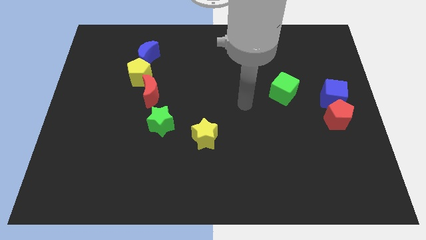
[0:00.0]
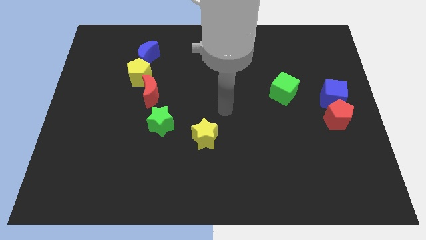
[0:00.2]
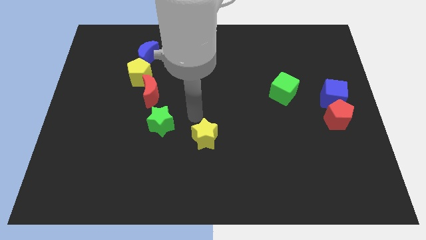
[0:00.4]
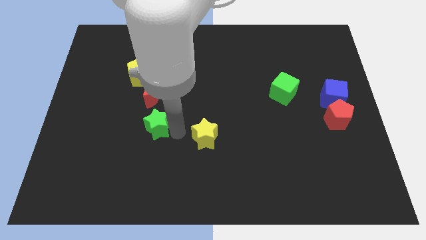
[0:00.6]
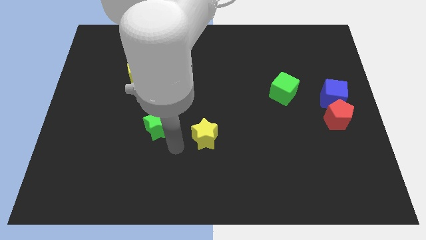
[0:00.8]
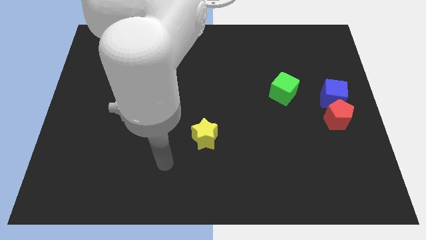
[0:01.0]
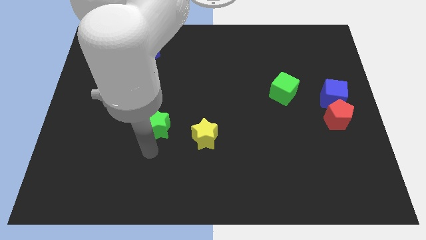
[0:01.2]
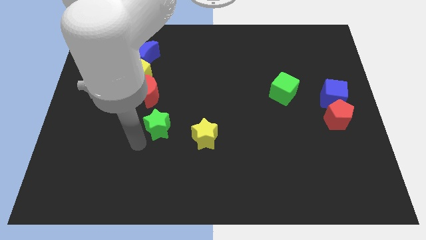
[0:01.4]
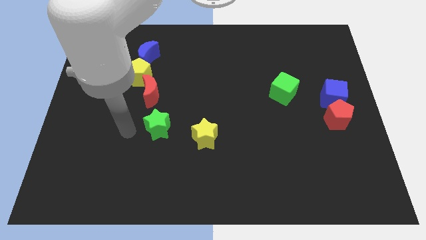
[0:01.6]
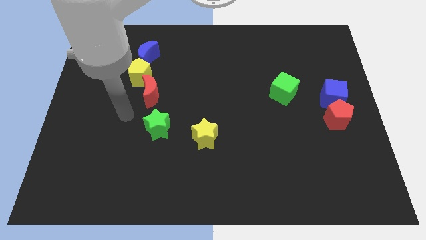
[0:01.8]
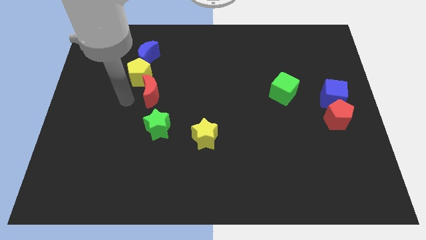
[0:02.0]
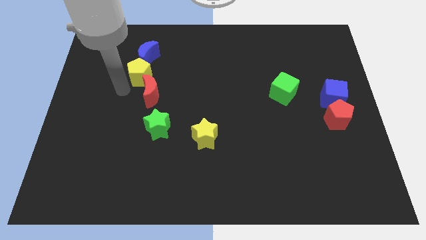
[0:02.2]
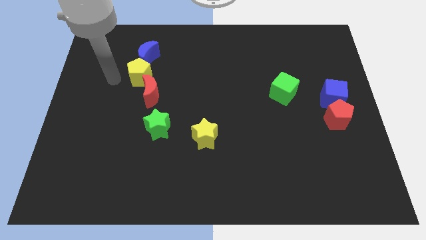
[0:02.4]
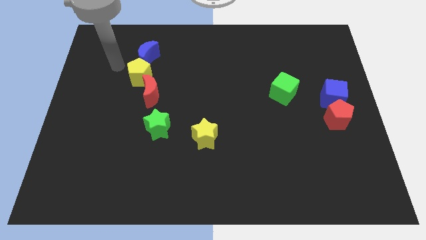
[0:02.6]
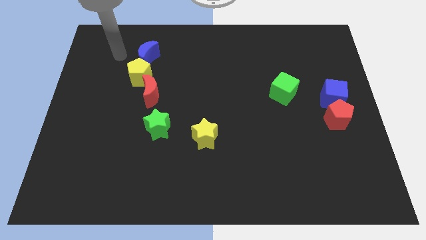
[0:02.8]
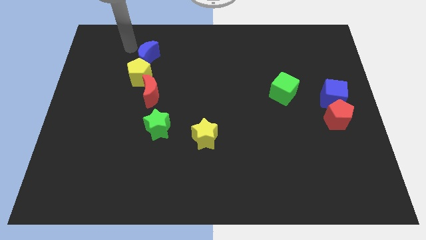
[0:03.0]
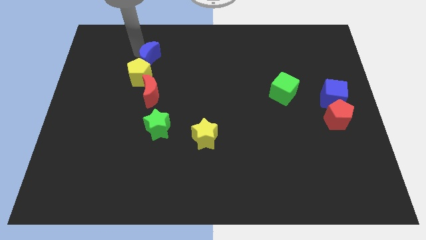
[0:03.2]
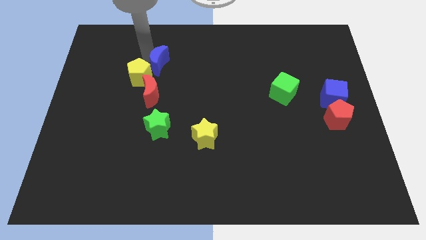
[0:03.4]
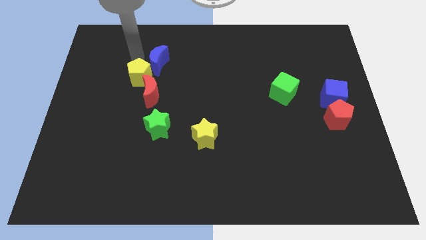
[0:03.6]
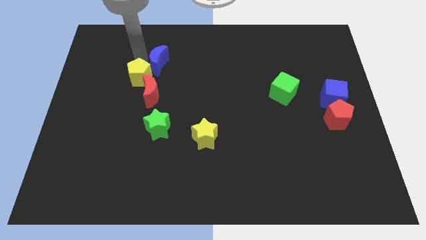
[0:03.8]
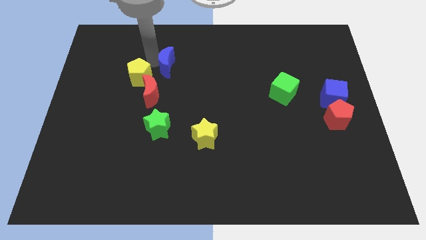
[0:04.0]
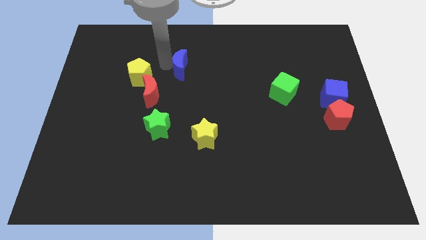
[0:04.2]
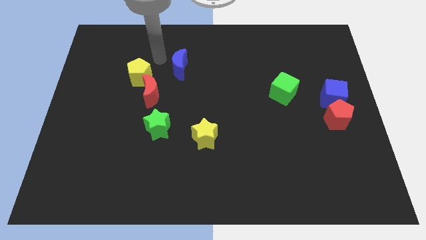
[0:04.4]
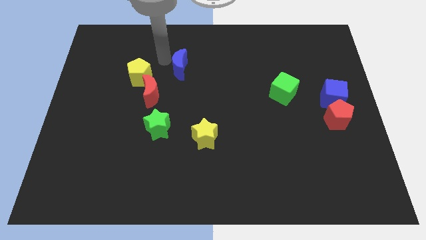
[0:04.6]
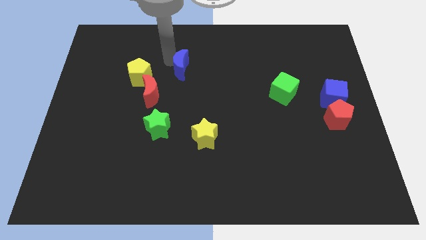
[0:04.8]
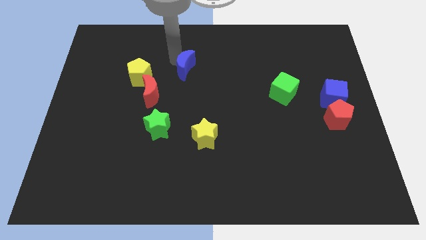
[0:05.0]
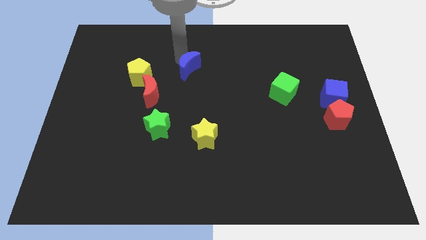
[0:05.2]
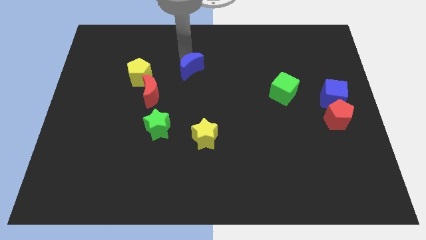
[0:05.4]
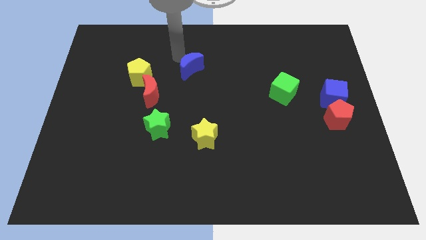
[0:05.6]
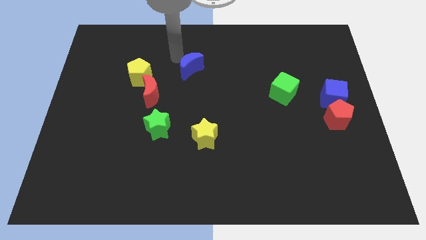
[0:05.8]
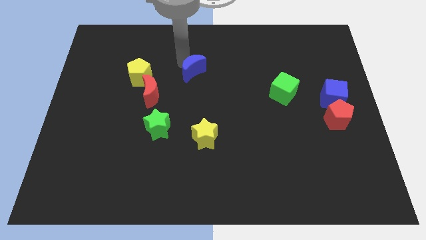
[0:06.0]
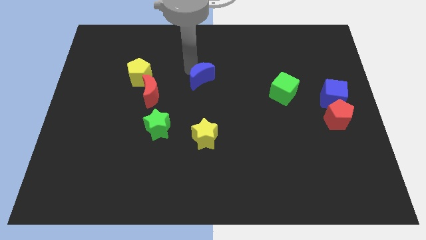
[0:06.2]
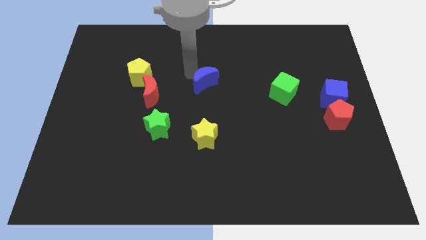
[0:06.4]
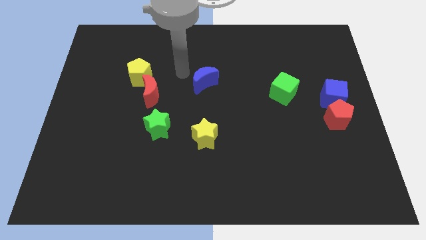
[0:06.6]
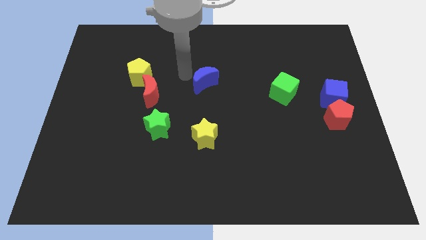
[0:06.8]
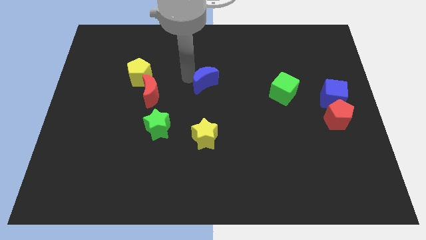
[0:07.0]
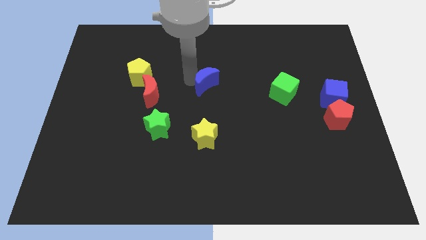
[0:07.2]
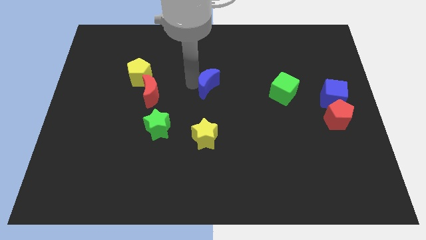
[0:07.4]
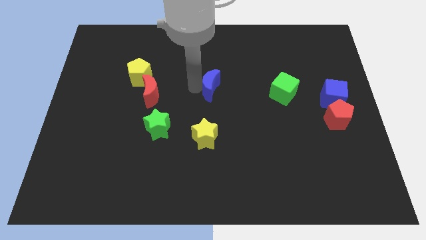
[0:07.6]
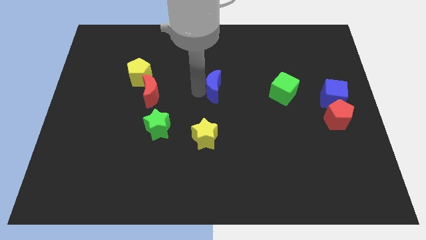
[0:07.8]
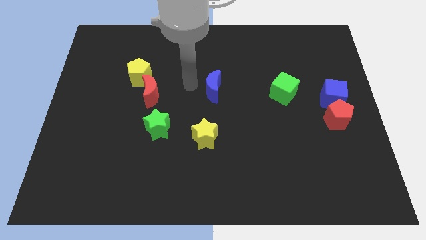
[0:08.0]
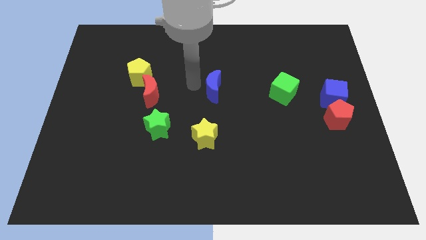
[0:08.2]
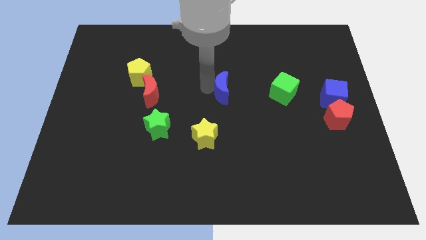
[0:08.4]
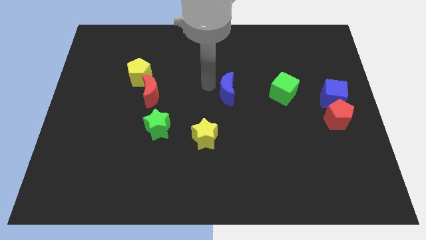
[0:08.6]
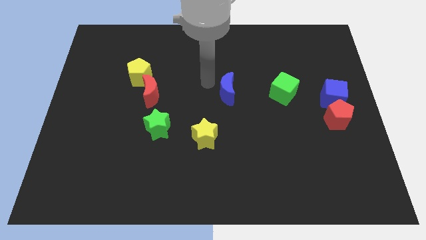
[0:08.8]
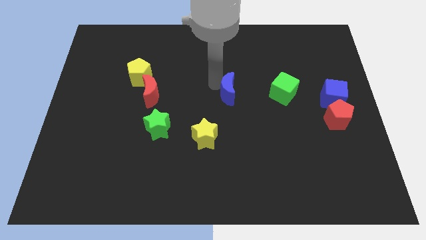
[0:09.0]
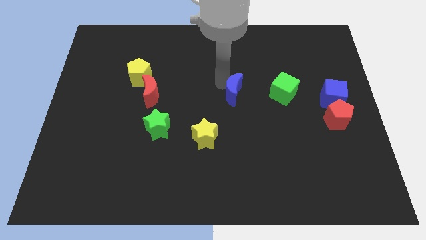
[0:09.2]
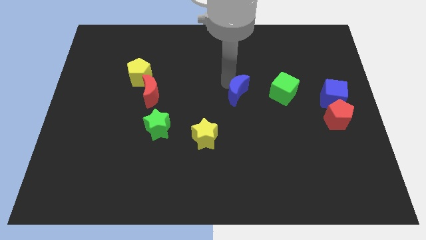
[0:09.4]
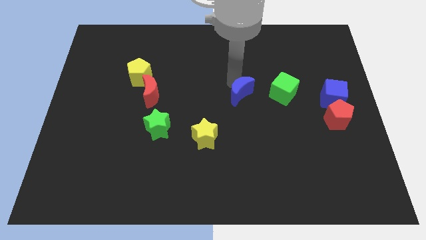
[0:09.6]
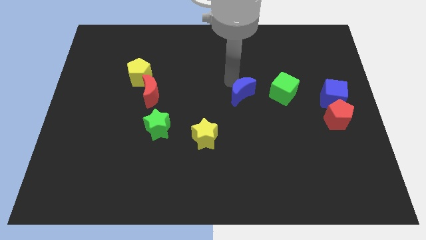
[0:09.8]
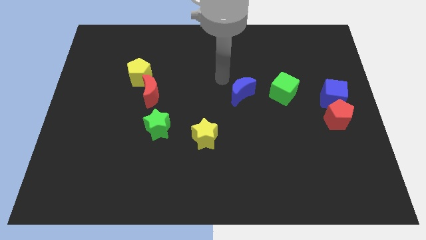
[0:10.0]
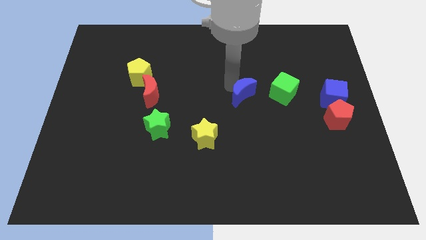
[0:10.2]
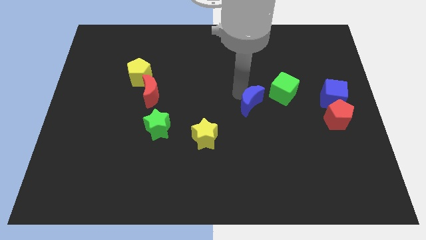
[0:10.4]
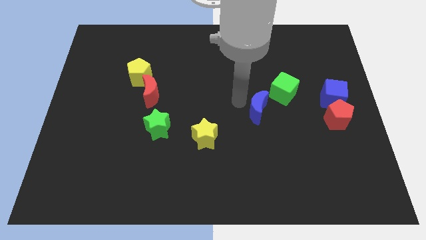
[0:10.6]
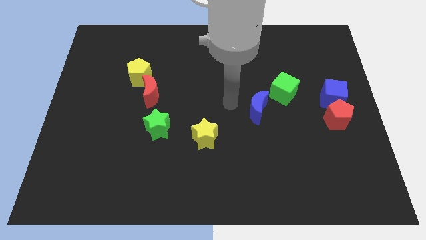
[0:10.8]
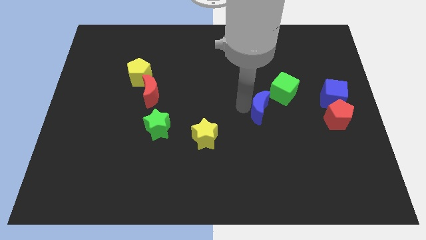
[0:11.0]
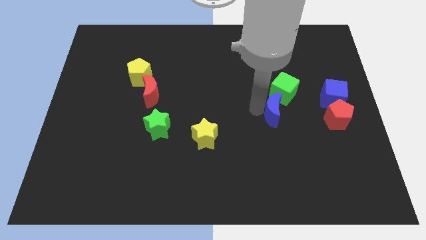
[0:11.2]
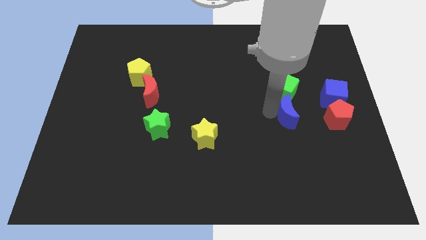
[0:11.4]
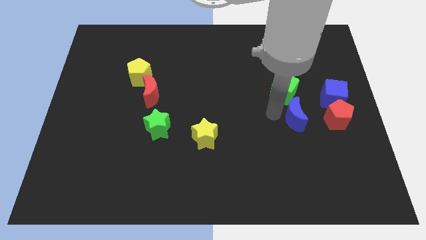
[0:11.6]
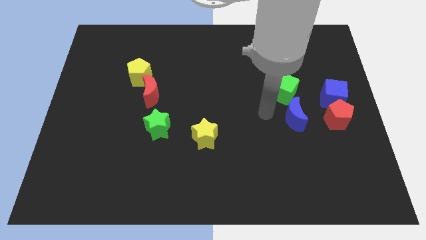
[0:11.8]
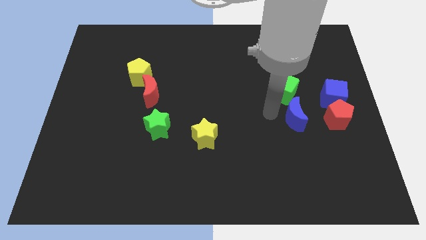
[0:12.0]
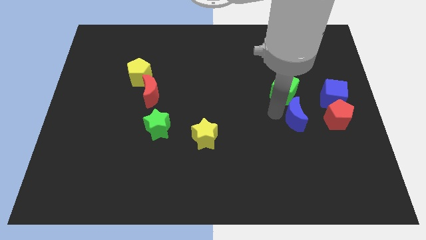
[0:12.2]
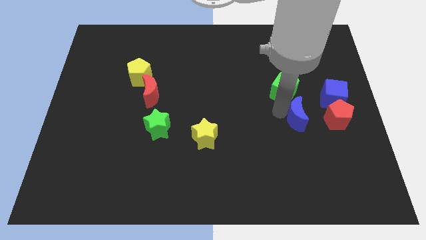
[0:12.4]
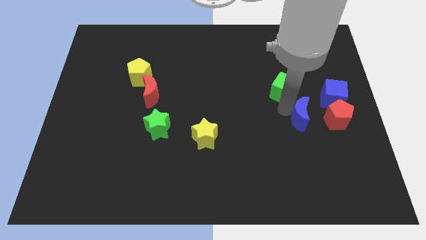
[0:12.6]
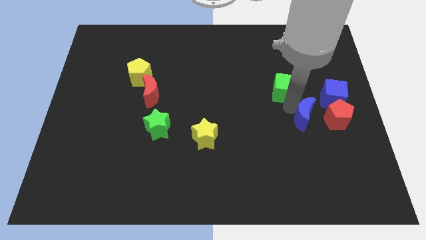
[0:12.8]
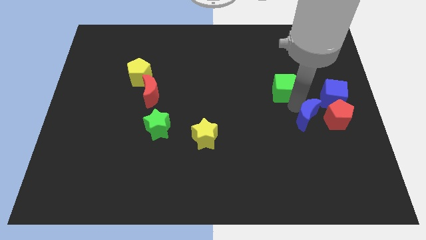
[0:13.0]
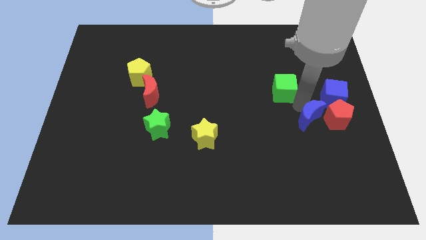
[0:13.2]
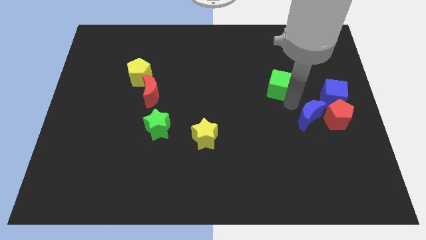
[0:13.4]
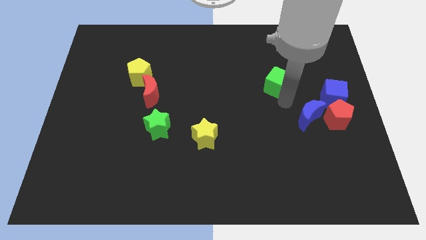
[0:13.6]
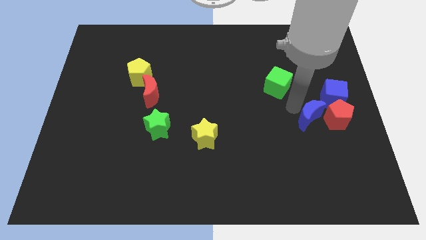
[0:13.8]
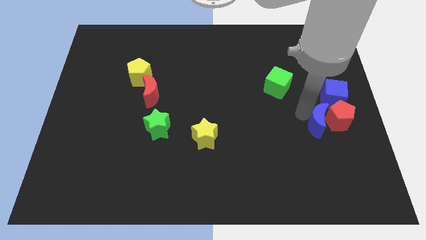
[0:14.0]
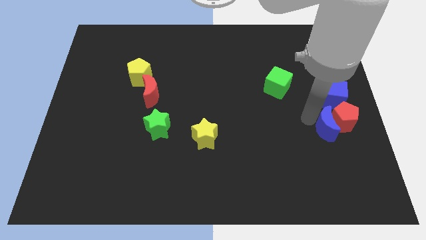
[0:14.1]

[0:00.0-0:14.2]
move the blue moon to the bottom of the blue cube
